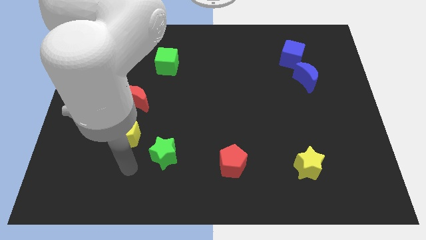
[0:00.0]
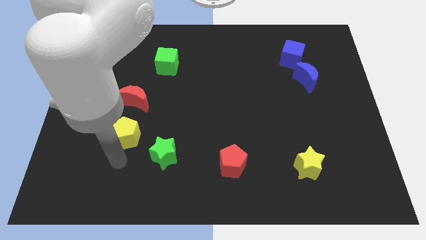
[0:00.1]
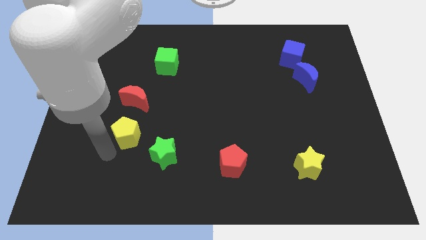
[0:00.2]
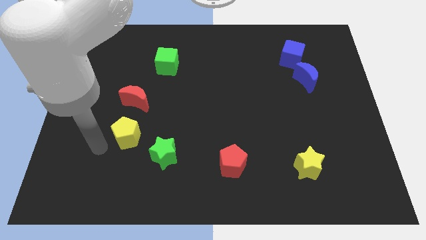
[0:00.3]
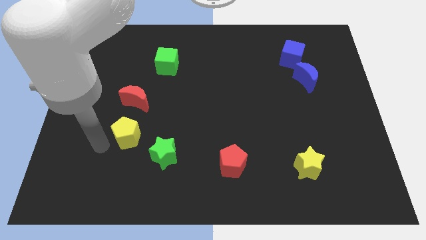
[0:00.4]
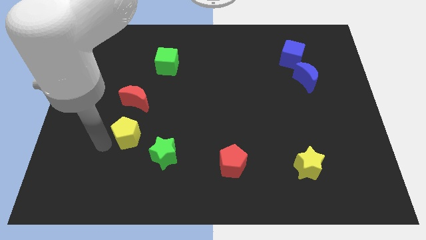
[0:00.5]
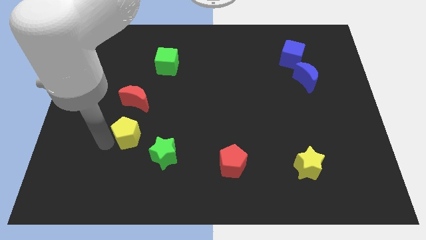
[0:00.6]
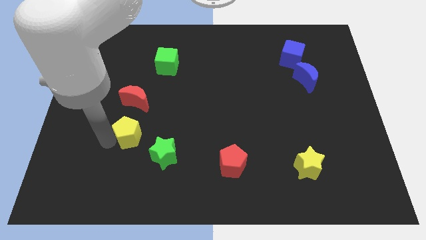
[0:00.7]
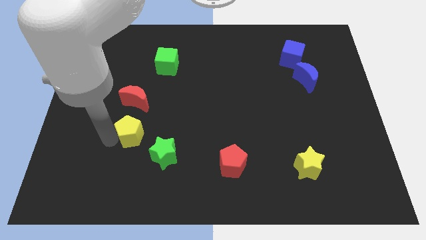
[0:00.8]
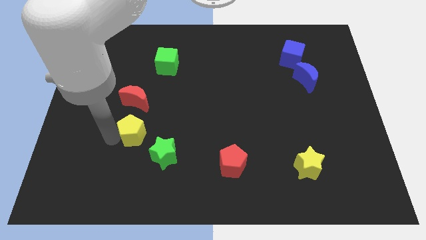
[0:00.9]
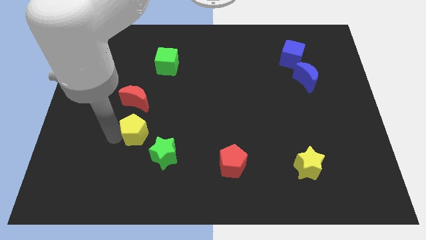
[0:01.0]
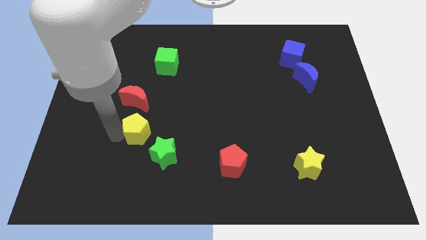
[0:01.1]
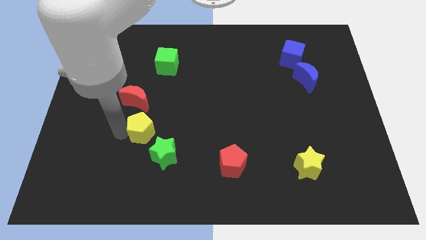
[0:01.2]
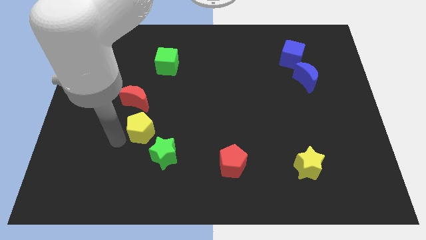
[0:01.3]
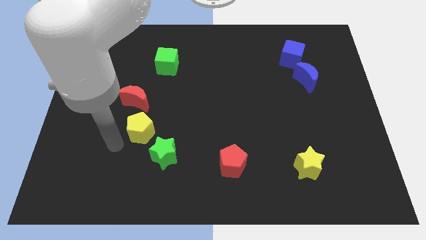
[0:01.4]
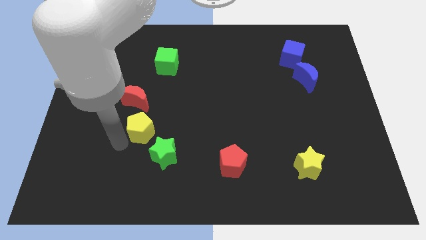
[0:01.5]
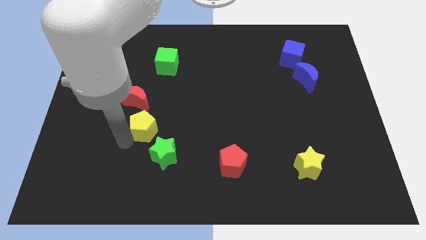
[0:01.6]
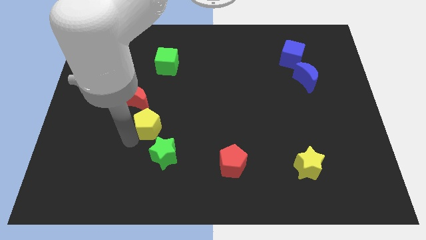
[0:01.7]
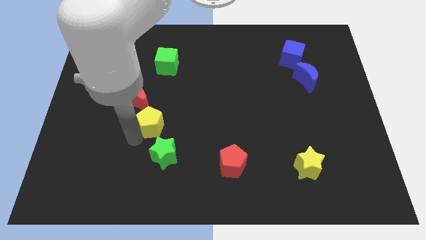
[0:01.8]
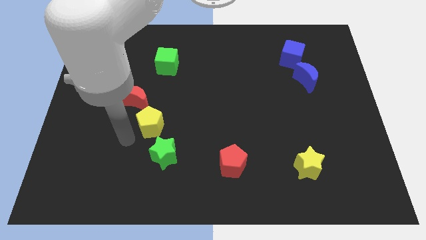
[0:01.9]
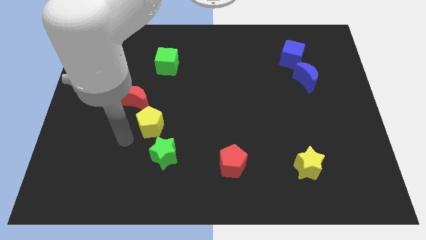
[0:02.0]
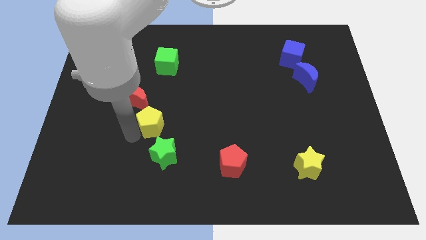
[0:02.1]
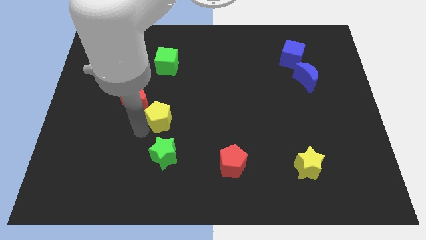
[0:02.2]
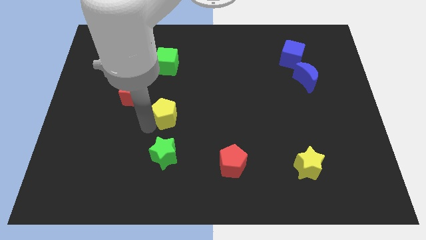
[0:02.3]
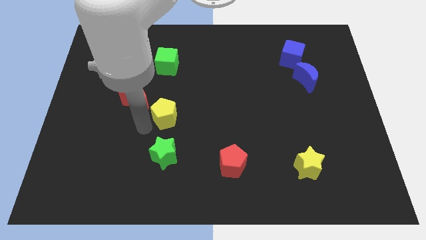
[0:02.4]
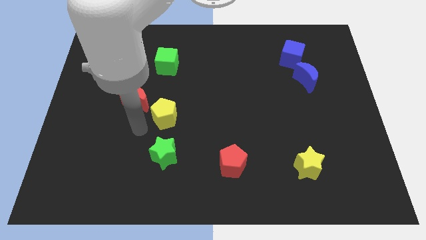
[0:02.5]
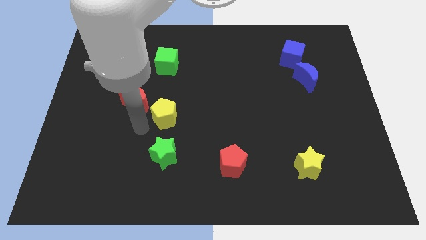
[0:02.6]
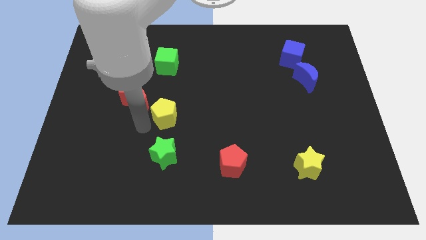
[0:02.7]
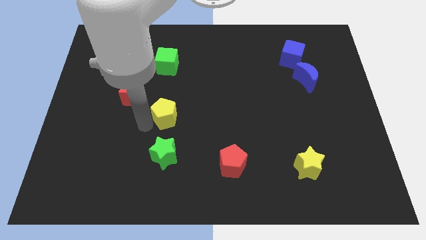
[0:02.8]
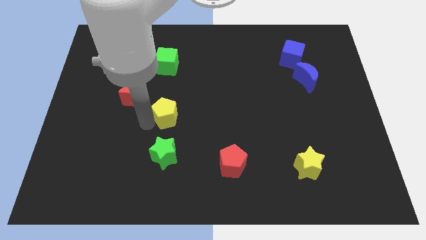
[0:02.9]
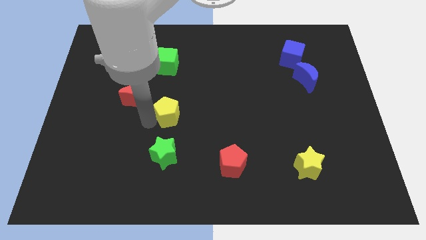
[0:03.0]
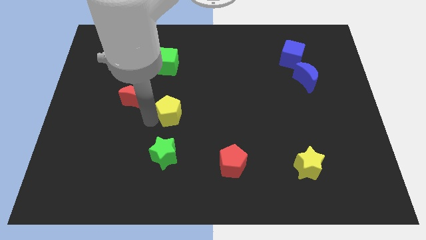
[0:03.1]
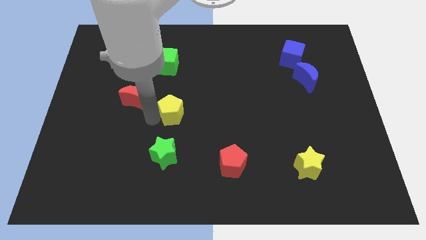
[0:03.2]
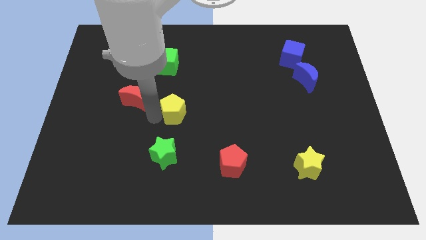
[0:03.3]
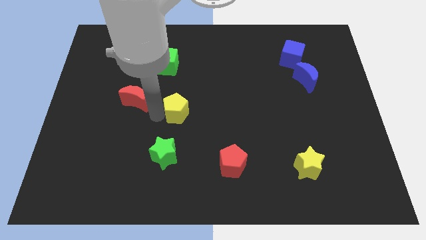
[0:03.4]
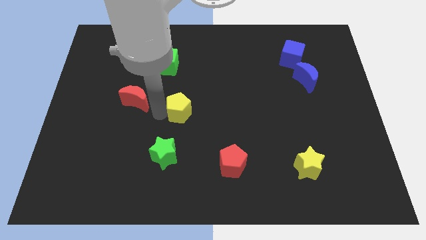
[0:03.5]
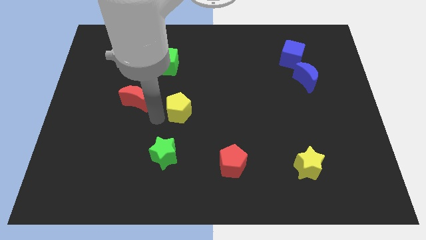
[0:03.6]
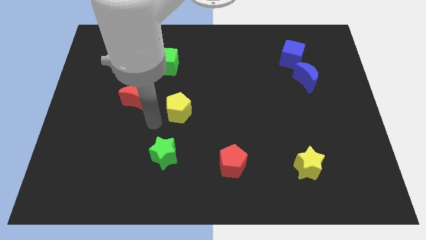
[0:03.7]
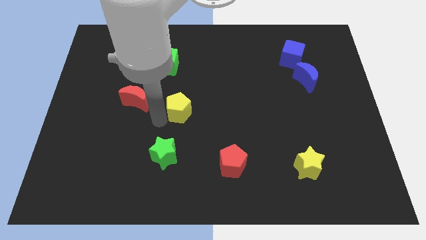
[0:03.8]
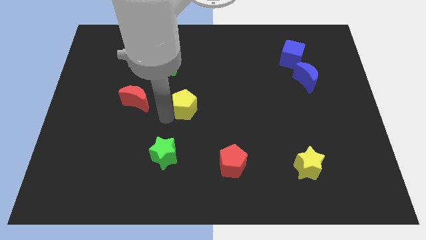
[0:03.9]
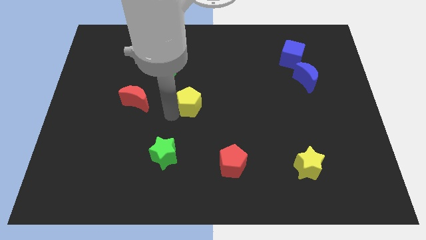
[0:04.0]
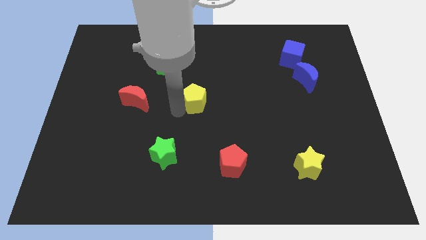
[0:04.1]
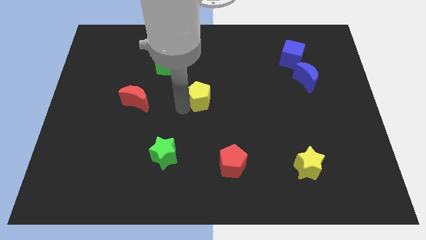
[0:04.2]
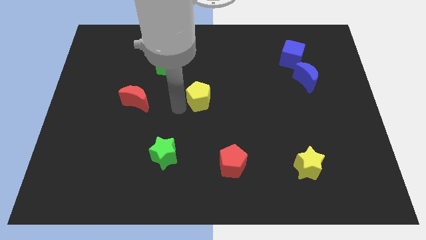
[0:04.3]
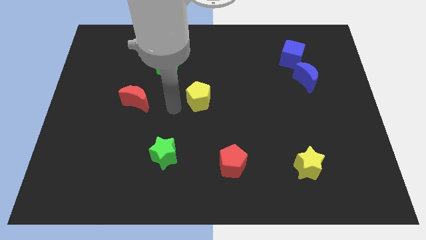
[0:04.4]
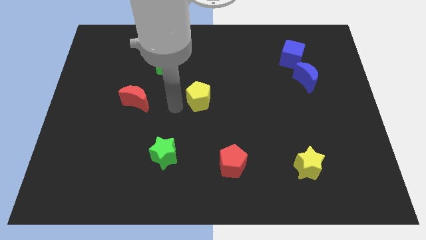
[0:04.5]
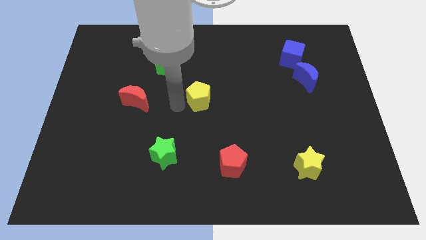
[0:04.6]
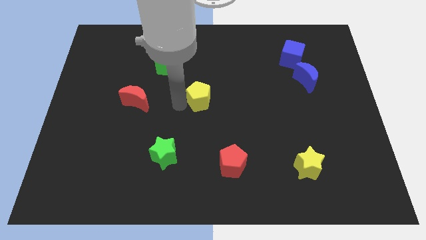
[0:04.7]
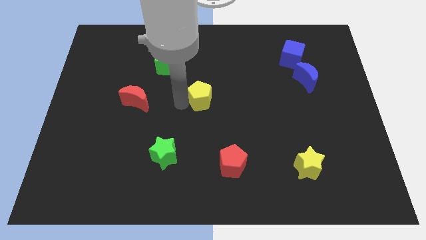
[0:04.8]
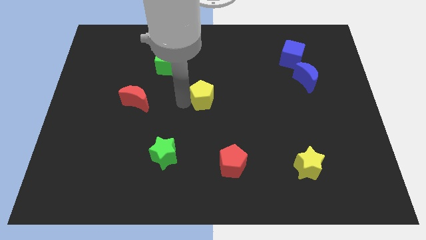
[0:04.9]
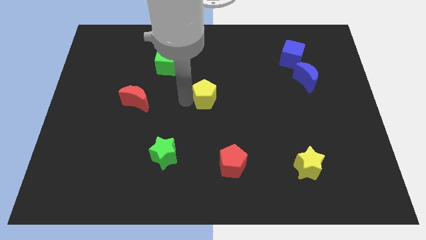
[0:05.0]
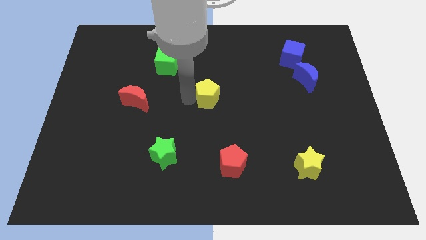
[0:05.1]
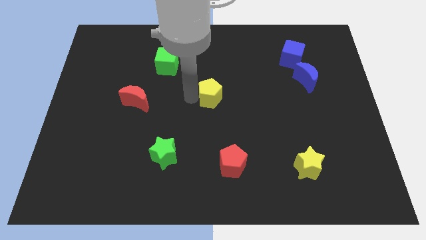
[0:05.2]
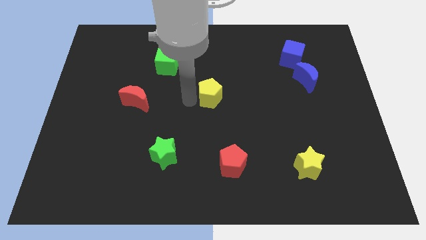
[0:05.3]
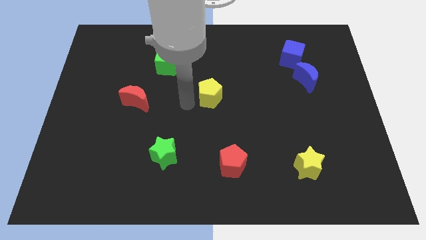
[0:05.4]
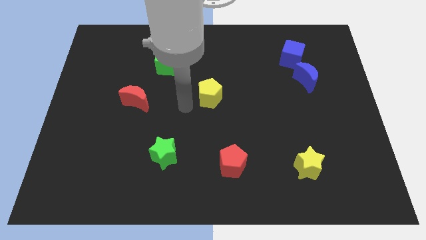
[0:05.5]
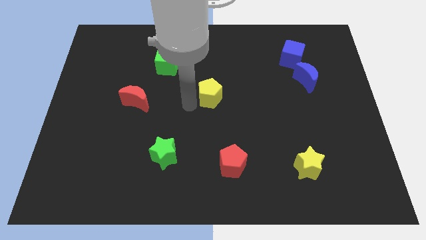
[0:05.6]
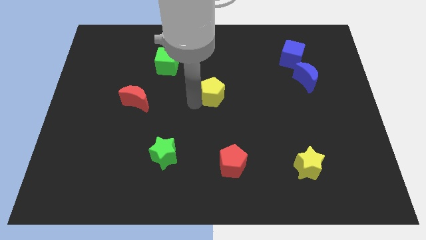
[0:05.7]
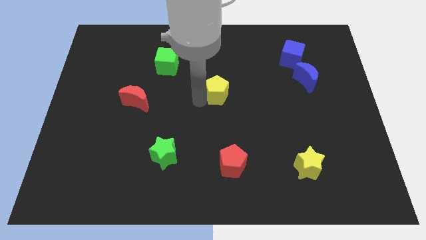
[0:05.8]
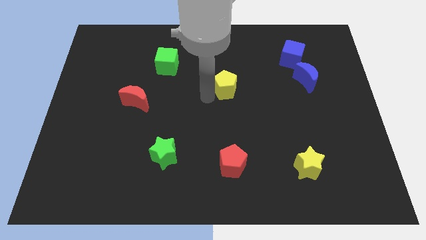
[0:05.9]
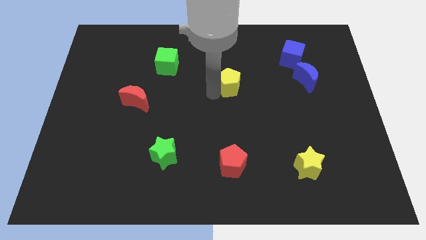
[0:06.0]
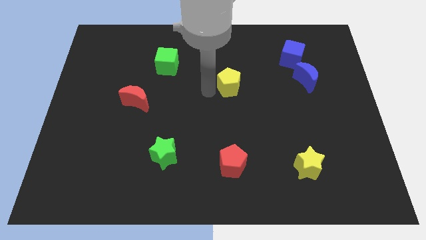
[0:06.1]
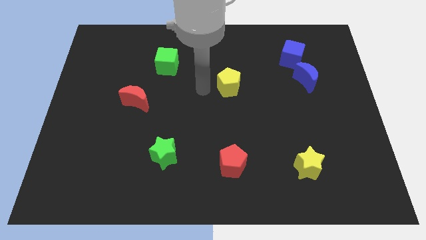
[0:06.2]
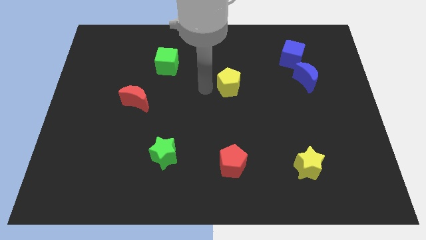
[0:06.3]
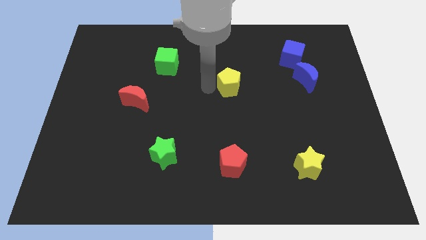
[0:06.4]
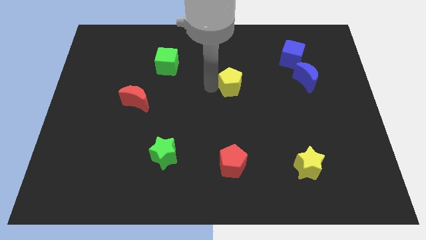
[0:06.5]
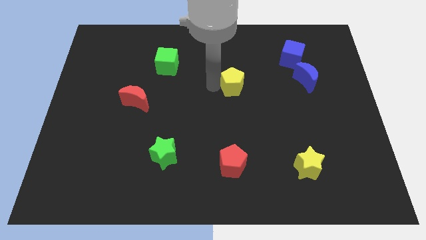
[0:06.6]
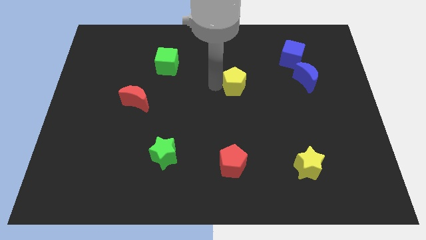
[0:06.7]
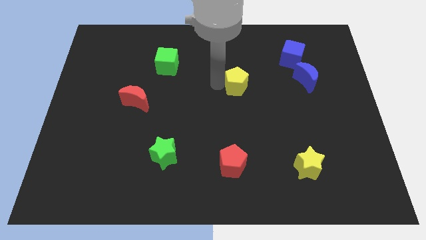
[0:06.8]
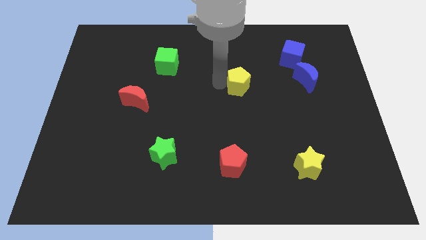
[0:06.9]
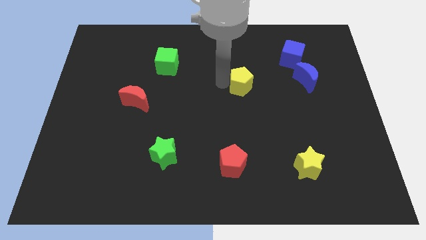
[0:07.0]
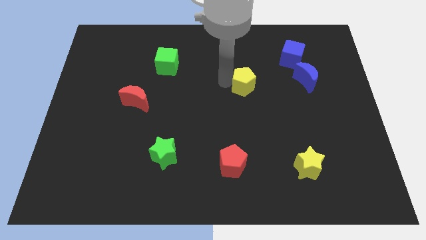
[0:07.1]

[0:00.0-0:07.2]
slide the yellow pentagon just left of the blue moon

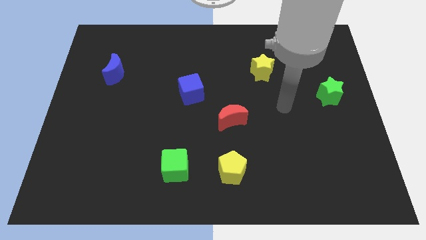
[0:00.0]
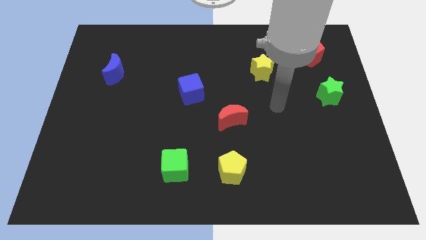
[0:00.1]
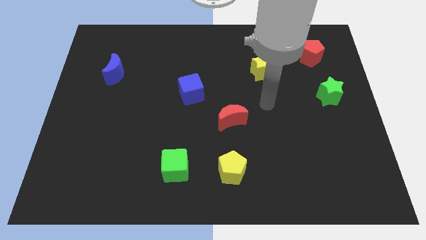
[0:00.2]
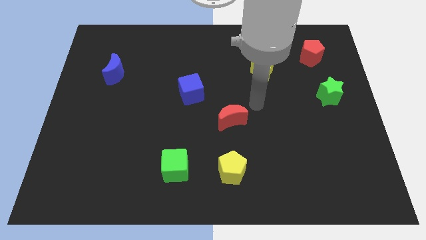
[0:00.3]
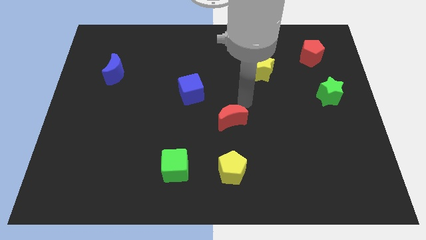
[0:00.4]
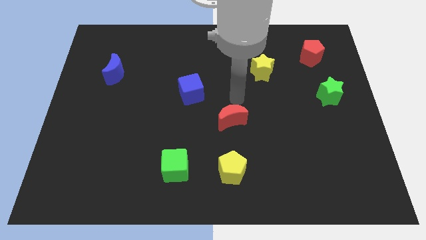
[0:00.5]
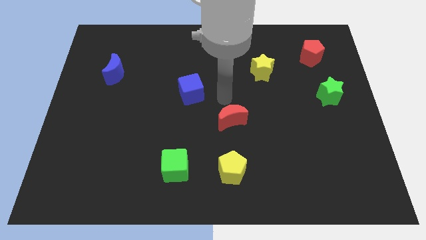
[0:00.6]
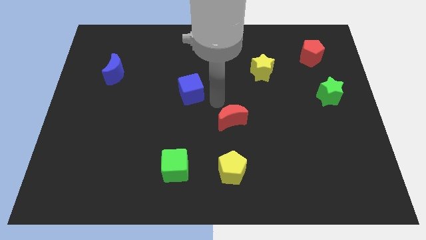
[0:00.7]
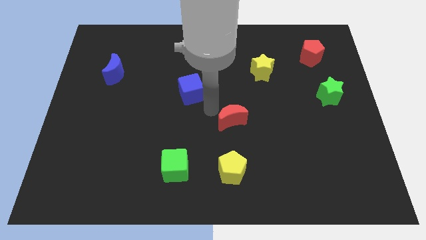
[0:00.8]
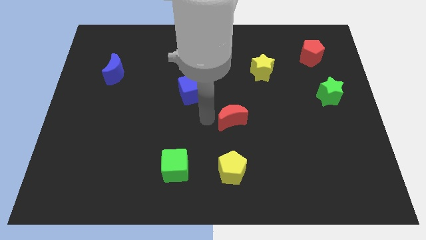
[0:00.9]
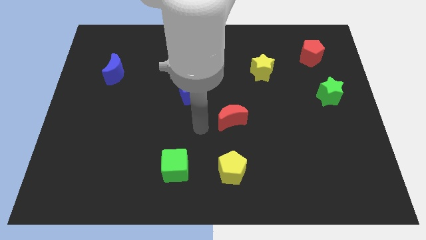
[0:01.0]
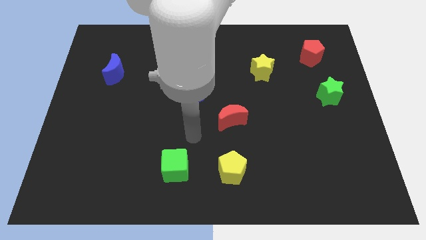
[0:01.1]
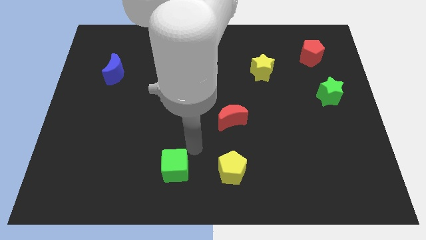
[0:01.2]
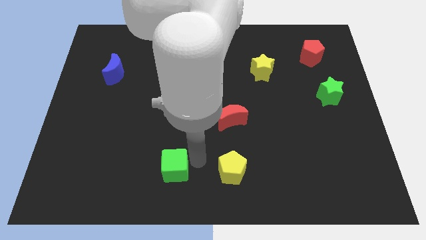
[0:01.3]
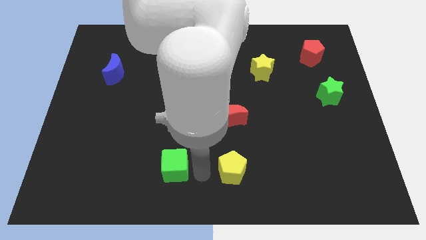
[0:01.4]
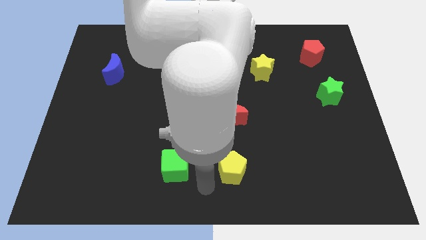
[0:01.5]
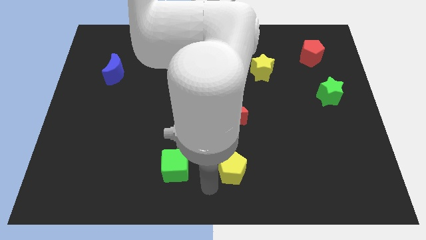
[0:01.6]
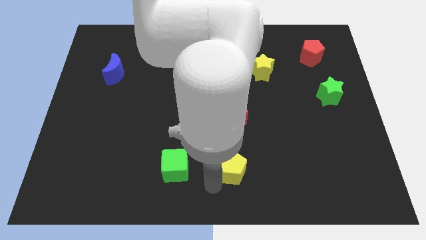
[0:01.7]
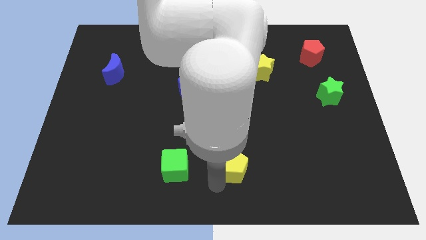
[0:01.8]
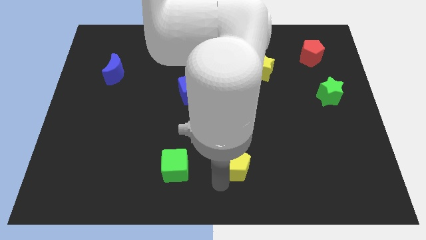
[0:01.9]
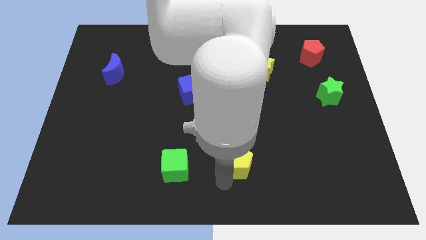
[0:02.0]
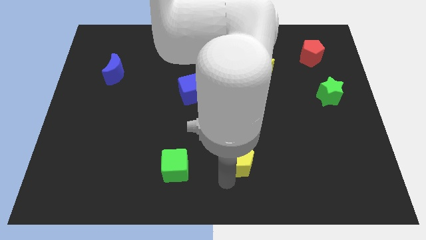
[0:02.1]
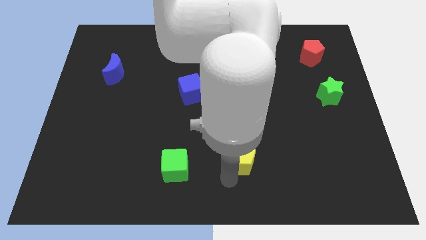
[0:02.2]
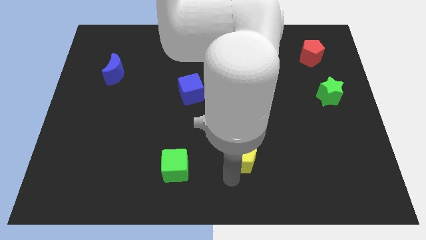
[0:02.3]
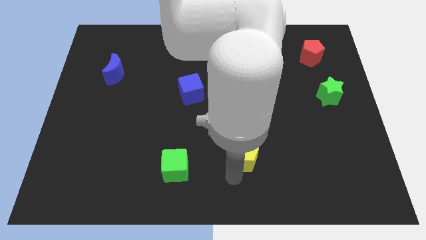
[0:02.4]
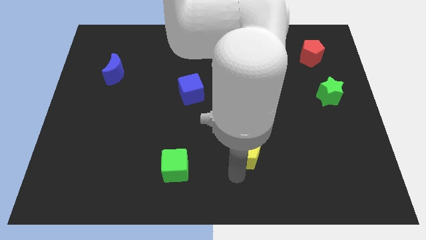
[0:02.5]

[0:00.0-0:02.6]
slide the yellow pentagon diagonally down and to the right of the red moon
